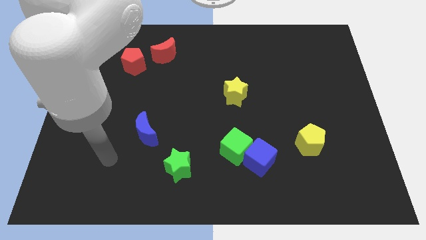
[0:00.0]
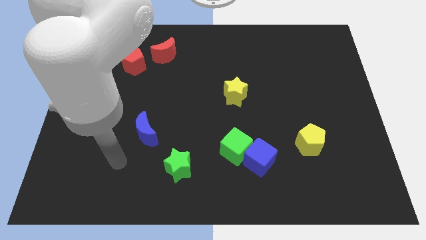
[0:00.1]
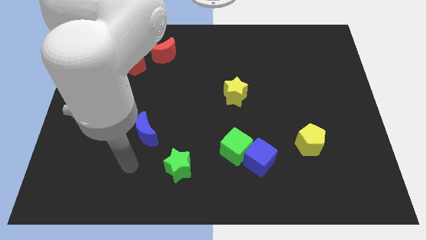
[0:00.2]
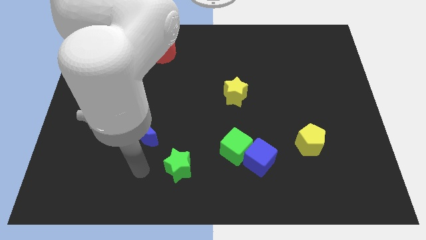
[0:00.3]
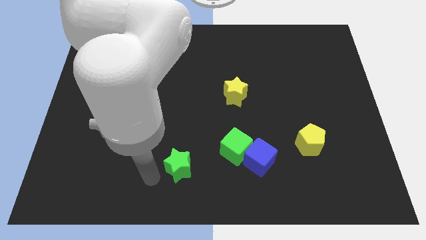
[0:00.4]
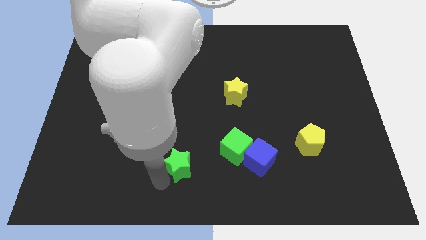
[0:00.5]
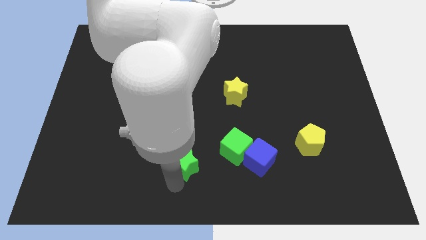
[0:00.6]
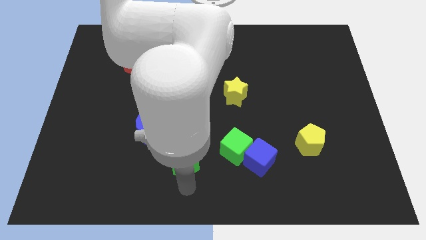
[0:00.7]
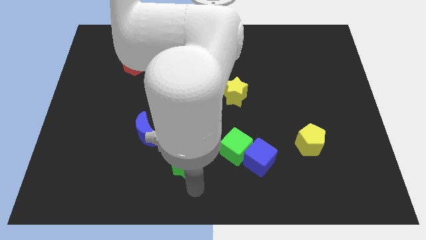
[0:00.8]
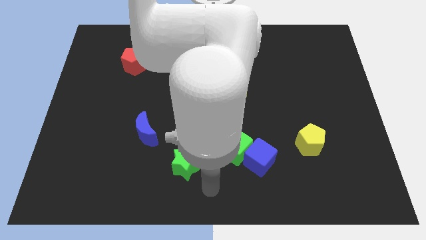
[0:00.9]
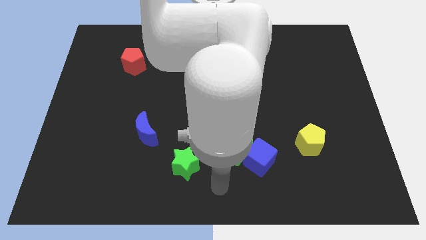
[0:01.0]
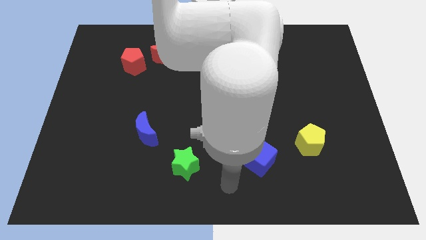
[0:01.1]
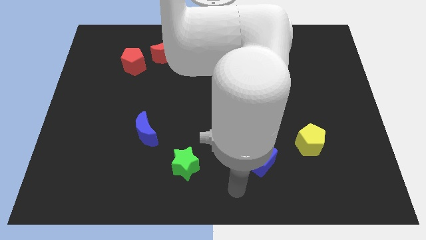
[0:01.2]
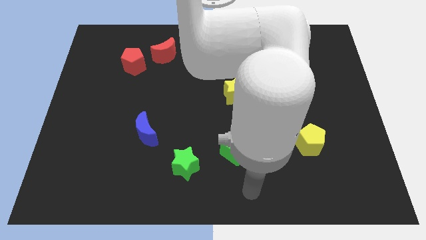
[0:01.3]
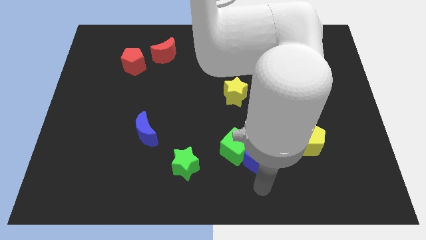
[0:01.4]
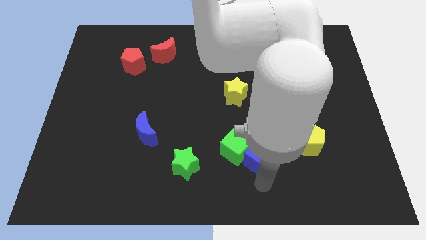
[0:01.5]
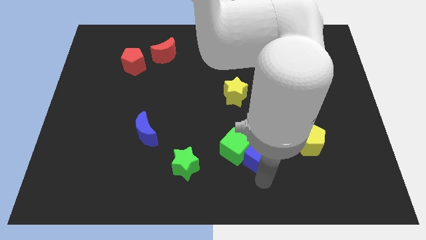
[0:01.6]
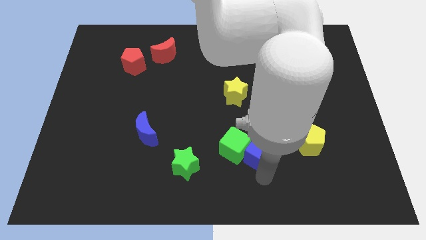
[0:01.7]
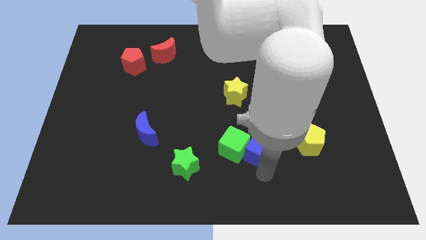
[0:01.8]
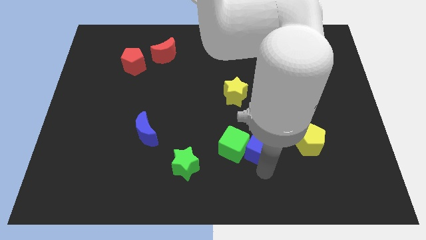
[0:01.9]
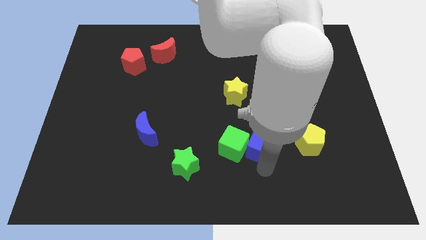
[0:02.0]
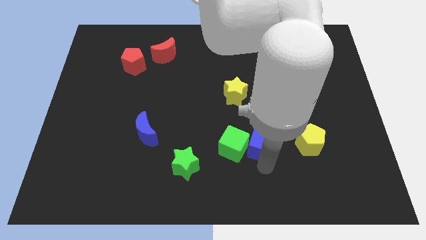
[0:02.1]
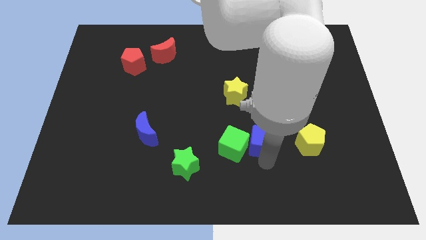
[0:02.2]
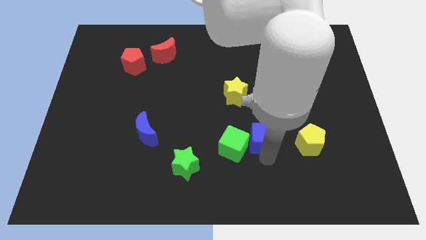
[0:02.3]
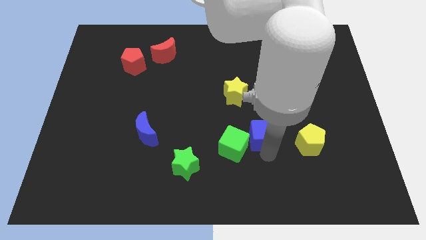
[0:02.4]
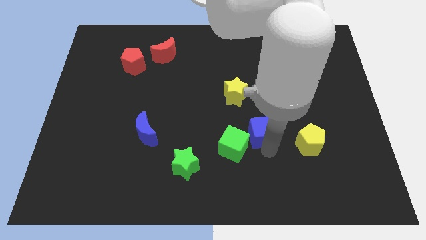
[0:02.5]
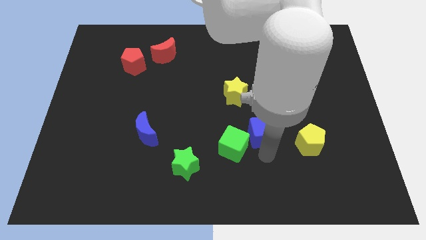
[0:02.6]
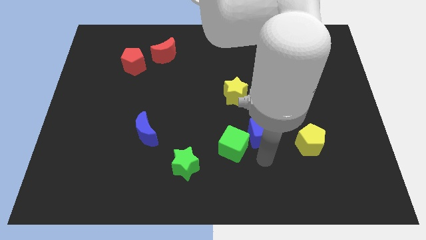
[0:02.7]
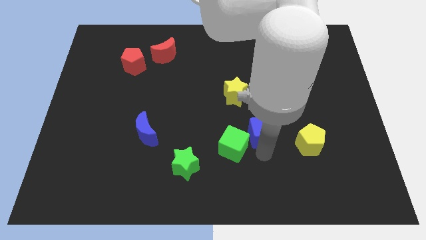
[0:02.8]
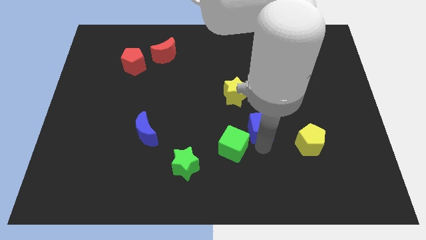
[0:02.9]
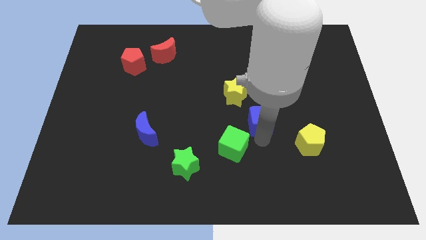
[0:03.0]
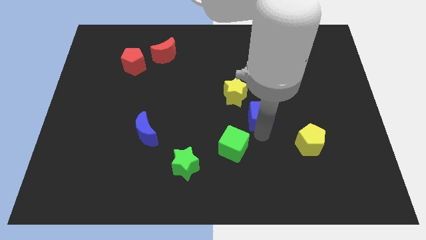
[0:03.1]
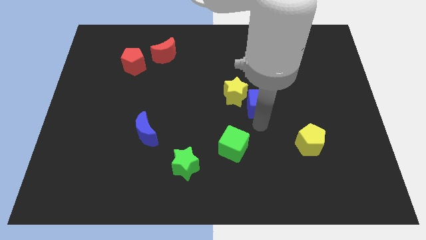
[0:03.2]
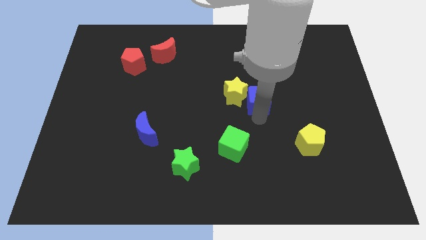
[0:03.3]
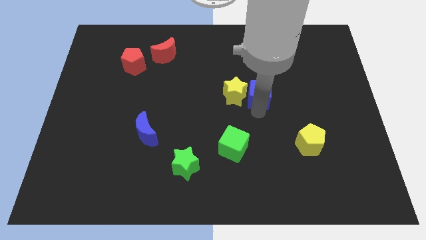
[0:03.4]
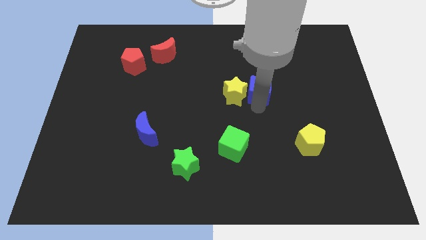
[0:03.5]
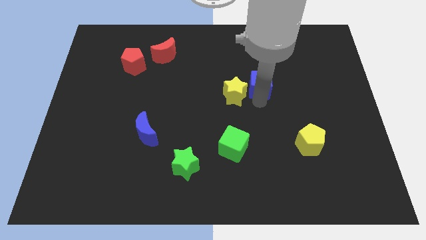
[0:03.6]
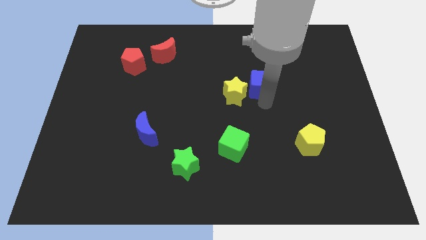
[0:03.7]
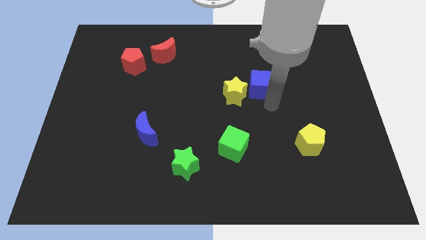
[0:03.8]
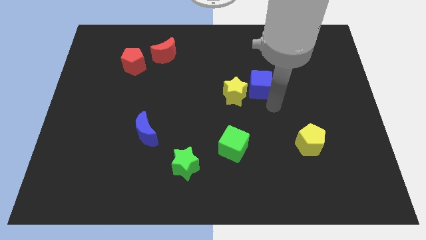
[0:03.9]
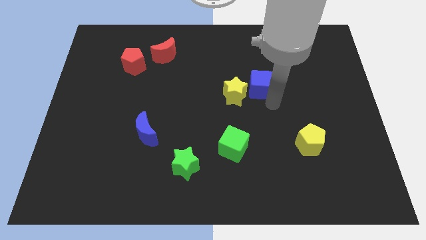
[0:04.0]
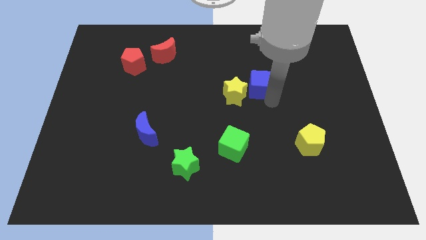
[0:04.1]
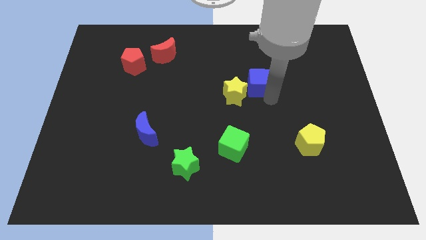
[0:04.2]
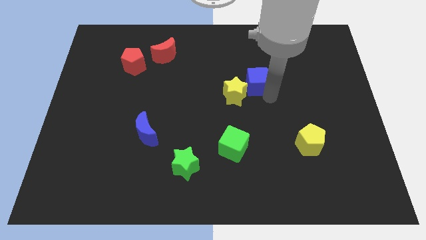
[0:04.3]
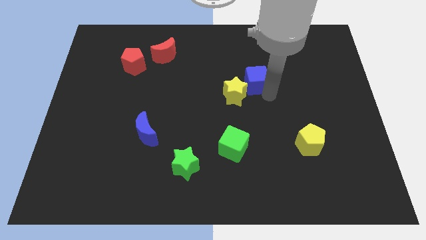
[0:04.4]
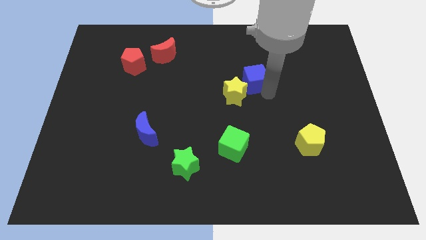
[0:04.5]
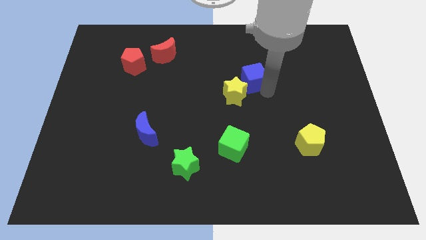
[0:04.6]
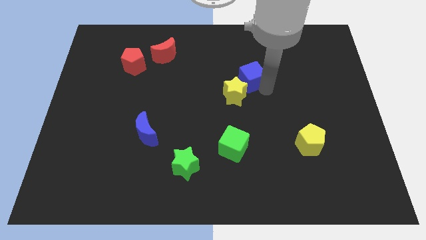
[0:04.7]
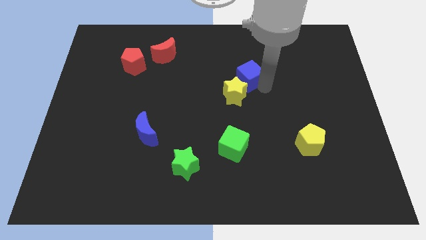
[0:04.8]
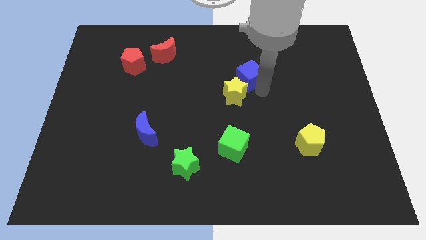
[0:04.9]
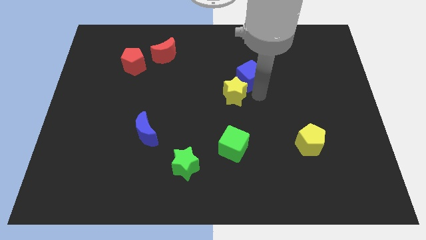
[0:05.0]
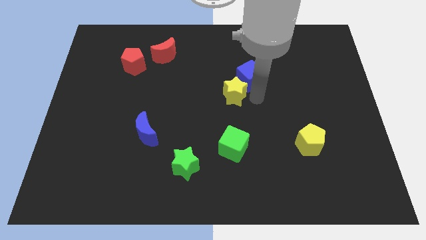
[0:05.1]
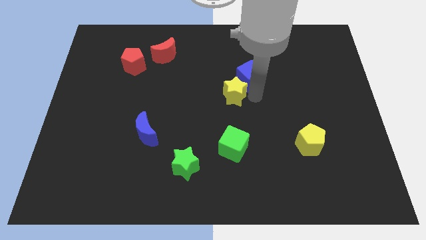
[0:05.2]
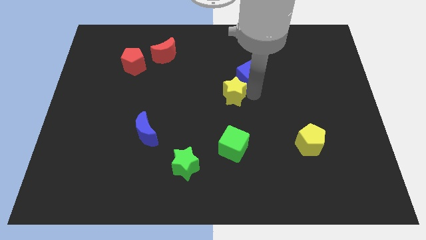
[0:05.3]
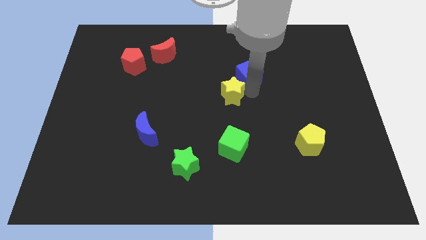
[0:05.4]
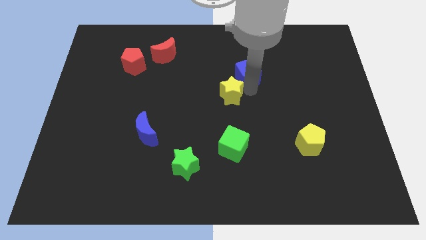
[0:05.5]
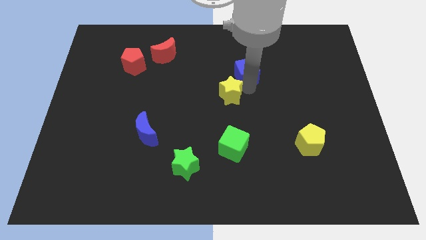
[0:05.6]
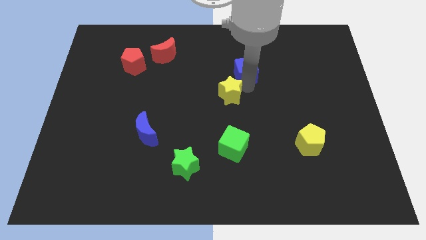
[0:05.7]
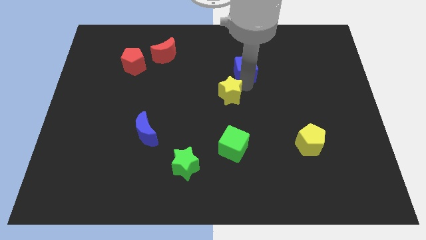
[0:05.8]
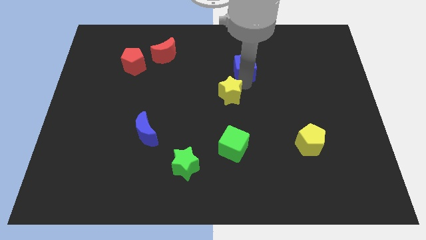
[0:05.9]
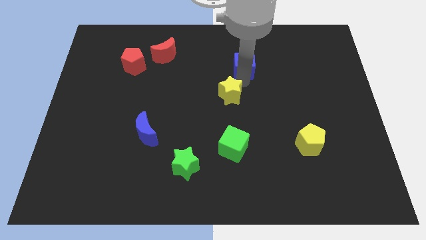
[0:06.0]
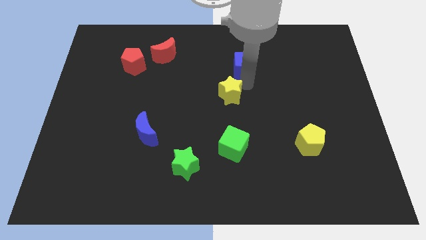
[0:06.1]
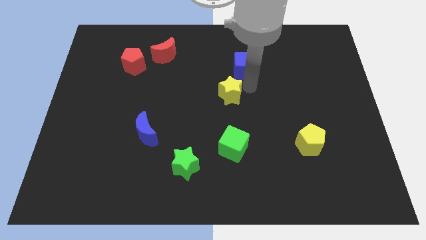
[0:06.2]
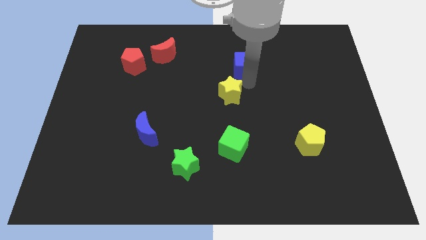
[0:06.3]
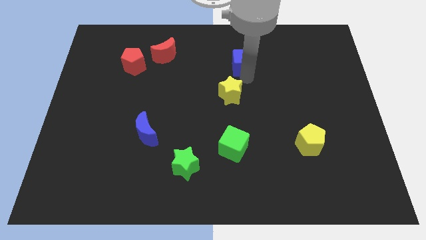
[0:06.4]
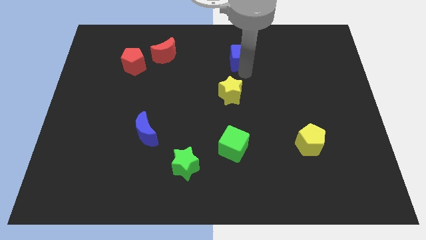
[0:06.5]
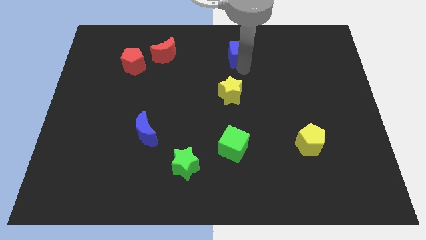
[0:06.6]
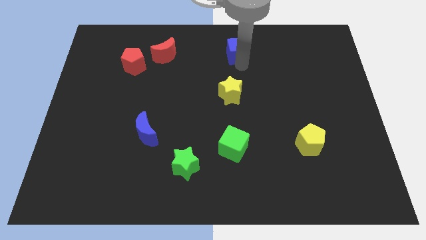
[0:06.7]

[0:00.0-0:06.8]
push the blue cube to the towards your base
